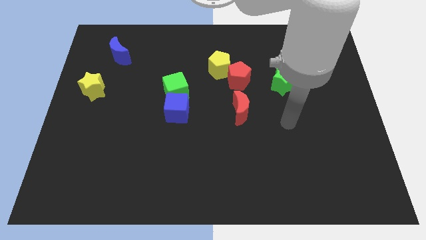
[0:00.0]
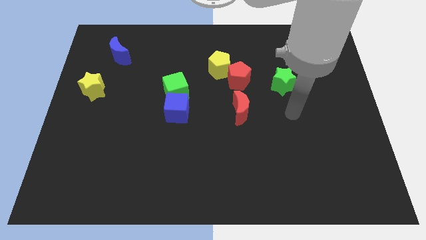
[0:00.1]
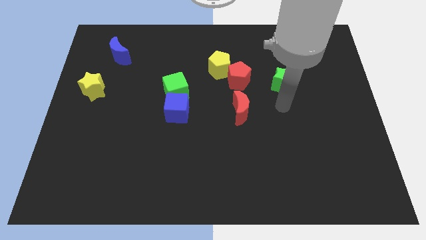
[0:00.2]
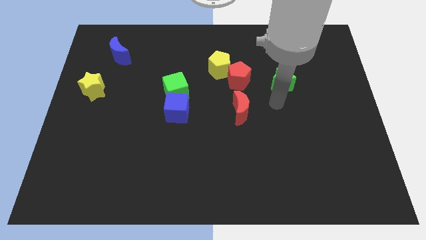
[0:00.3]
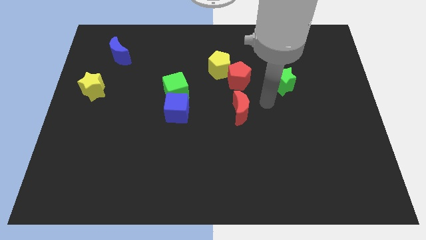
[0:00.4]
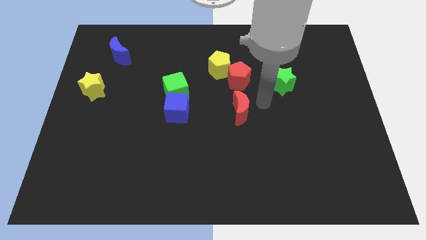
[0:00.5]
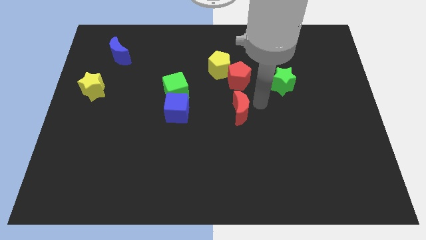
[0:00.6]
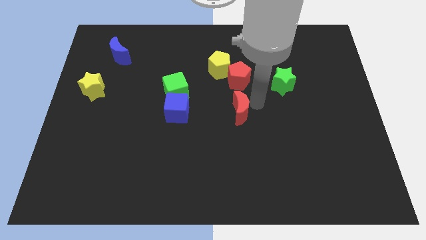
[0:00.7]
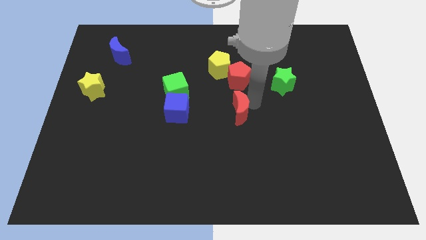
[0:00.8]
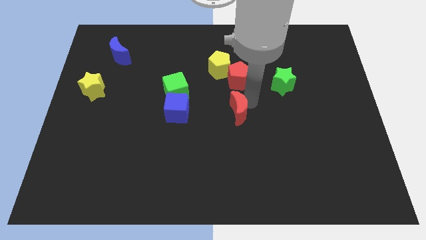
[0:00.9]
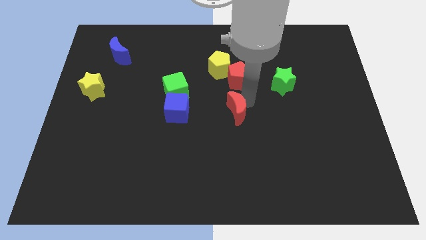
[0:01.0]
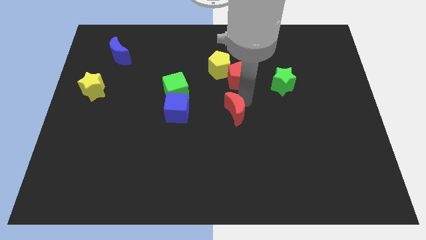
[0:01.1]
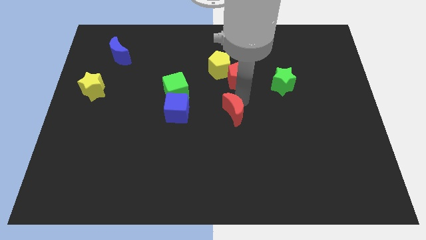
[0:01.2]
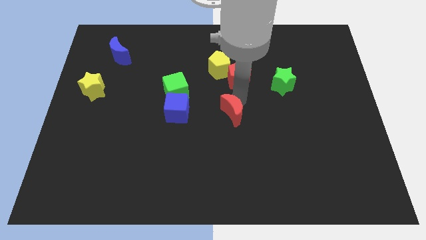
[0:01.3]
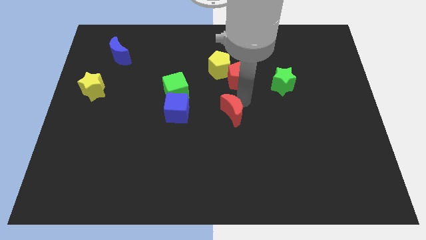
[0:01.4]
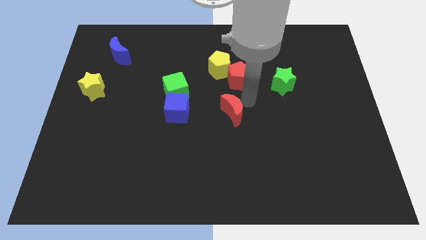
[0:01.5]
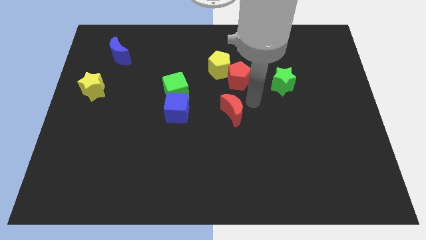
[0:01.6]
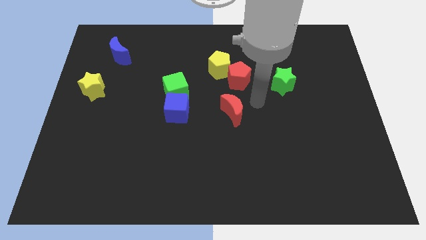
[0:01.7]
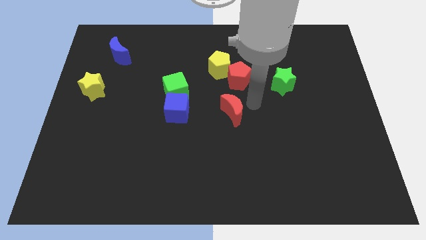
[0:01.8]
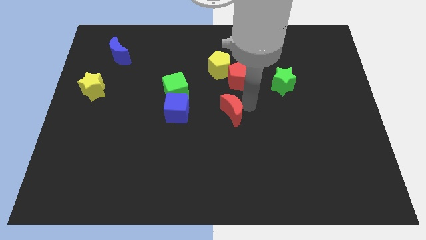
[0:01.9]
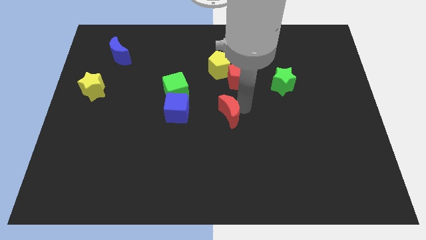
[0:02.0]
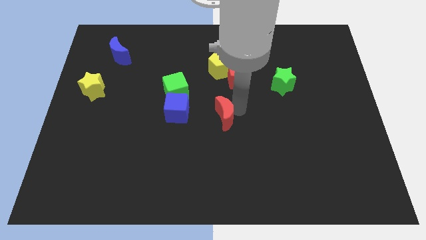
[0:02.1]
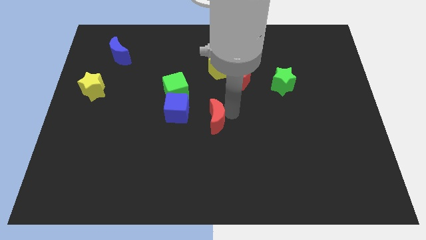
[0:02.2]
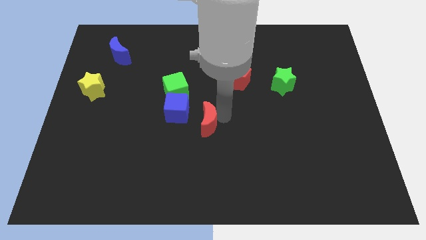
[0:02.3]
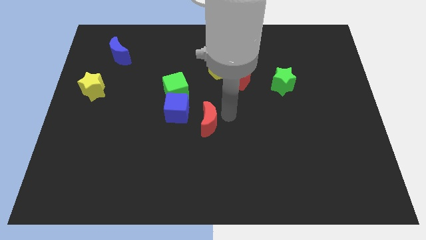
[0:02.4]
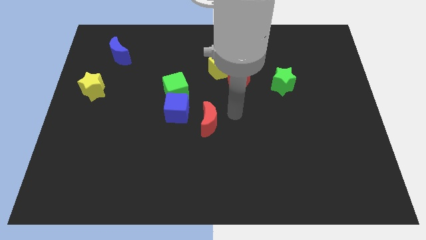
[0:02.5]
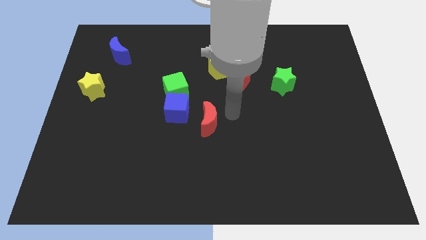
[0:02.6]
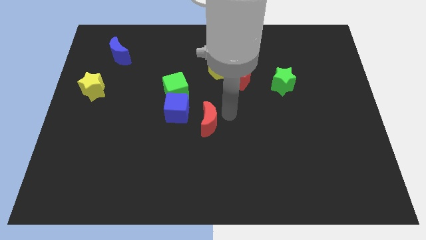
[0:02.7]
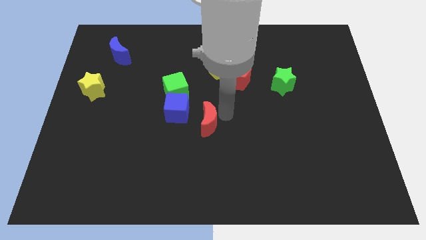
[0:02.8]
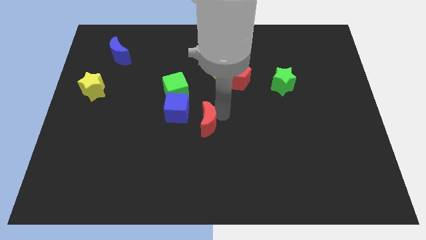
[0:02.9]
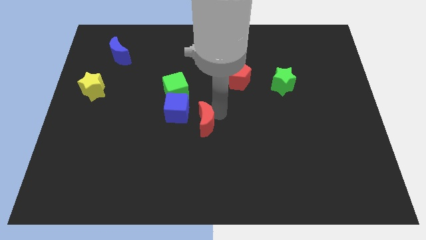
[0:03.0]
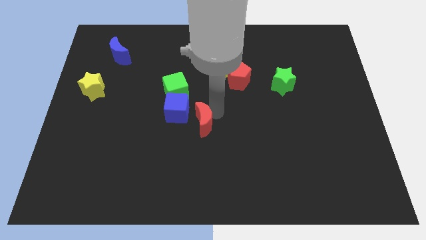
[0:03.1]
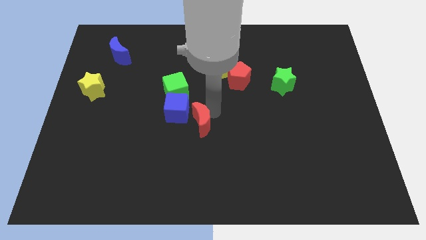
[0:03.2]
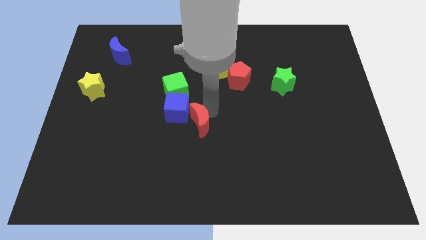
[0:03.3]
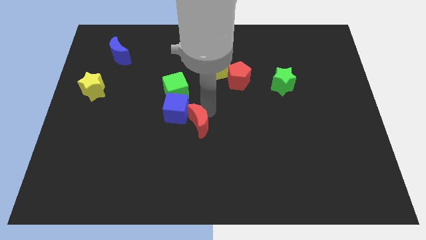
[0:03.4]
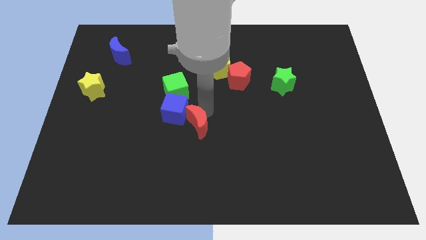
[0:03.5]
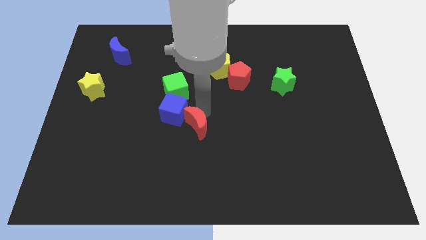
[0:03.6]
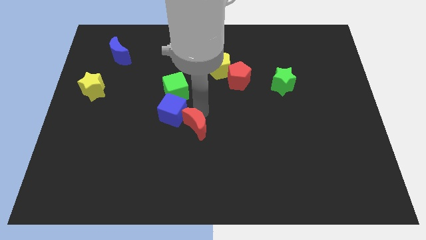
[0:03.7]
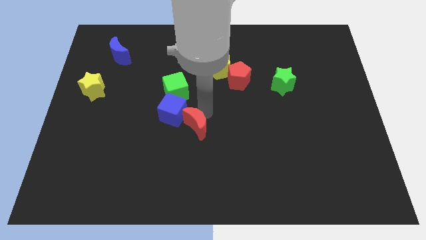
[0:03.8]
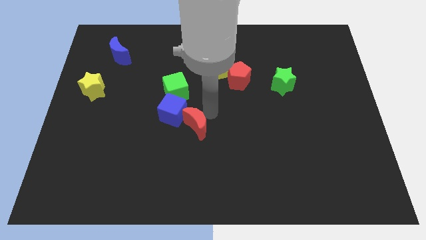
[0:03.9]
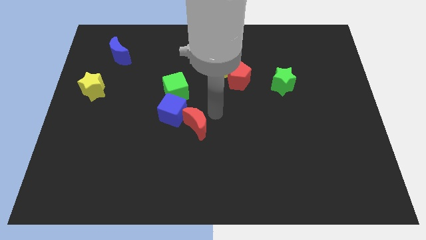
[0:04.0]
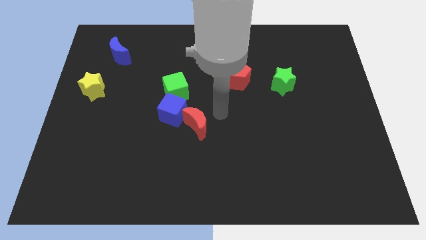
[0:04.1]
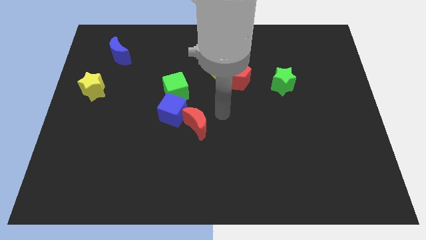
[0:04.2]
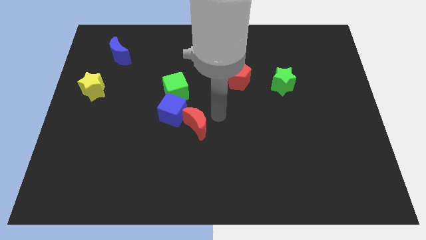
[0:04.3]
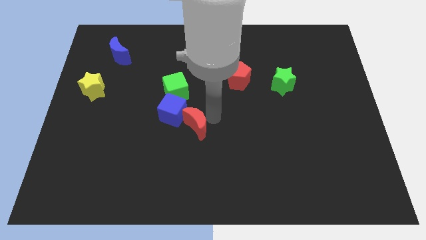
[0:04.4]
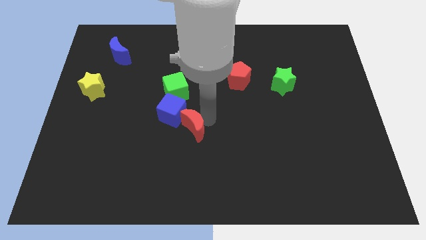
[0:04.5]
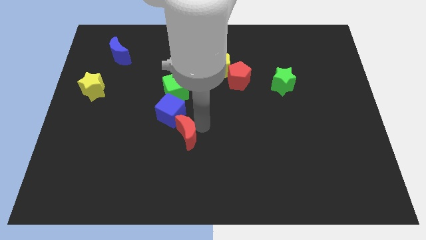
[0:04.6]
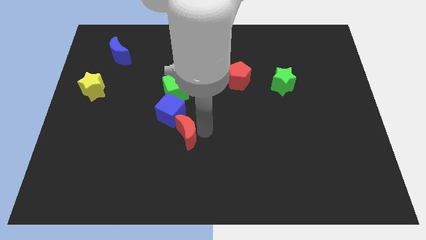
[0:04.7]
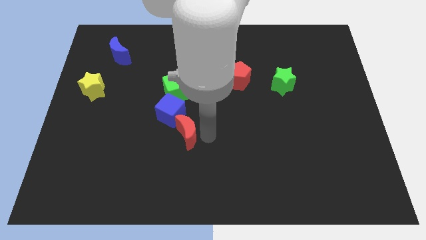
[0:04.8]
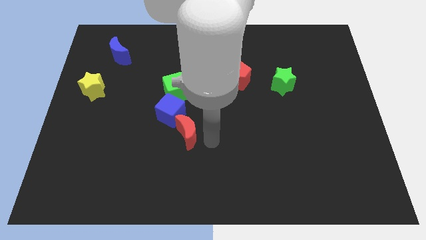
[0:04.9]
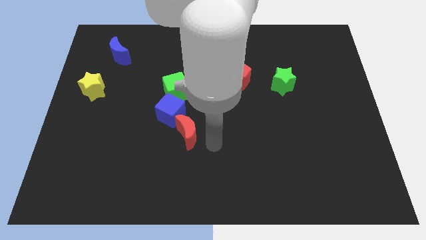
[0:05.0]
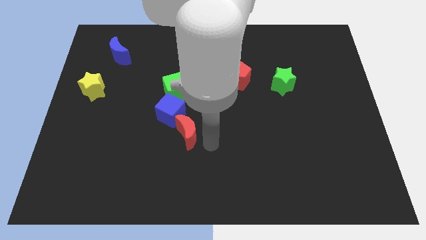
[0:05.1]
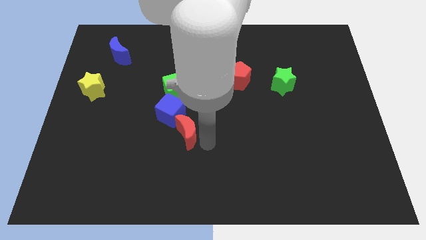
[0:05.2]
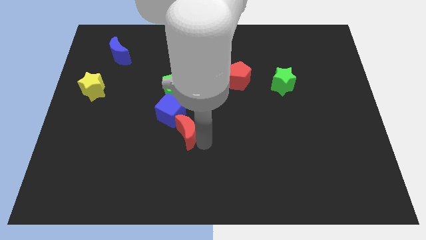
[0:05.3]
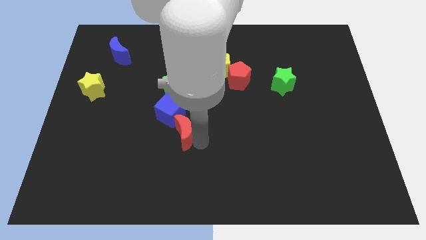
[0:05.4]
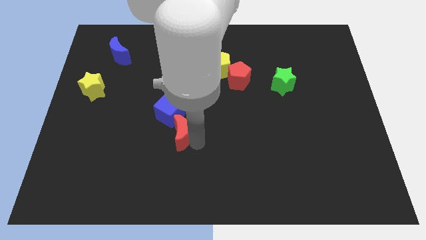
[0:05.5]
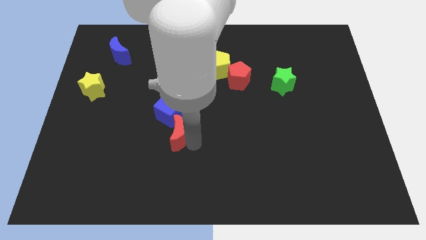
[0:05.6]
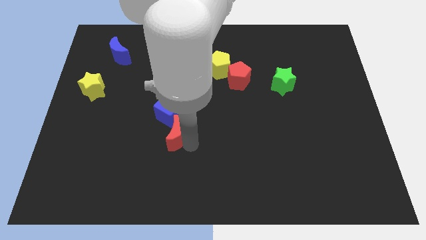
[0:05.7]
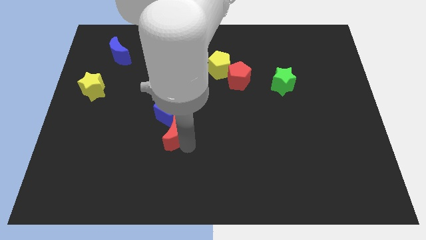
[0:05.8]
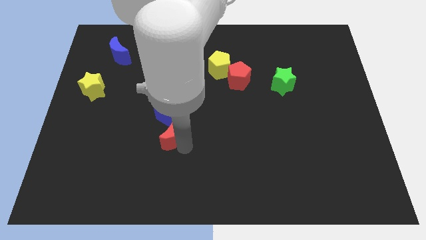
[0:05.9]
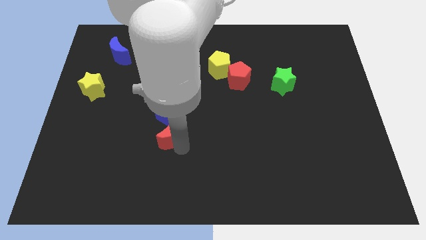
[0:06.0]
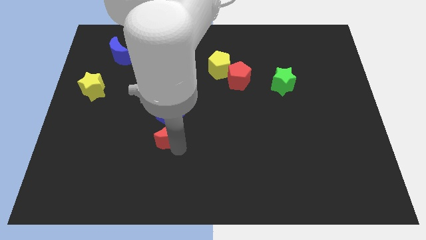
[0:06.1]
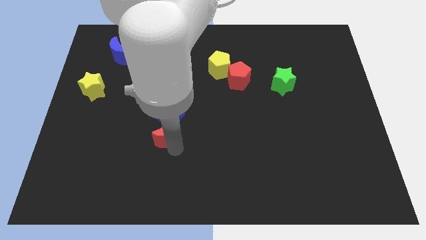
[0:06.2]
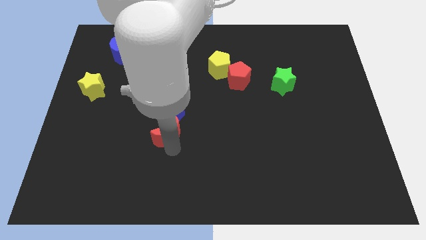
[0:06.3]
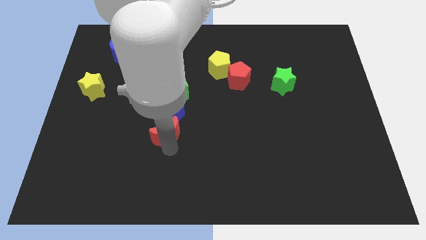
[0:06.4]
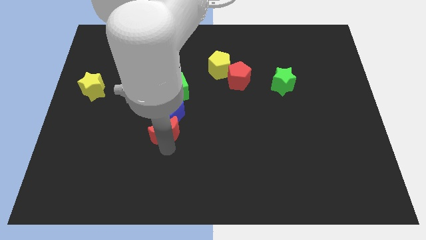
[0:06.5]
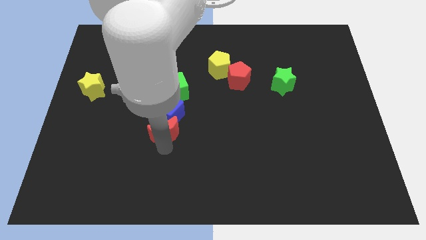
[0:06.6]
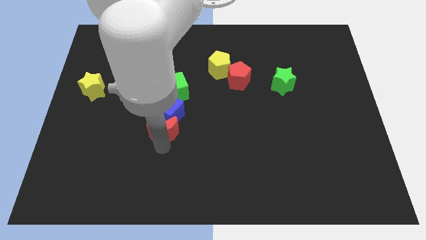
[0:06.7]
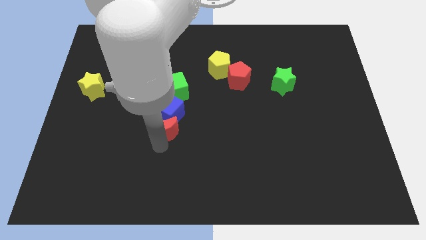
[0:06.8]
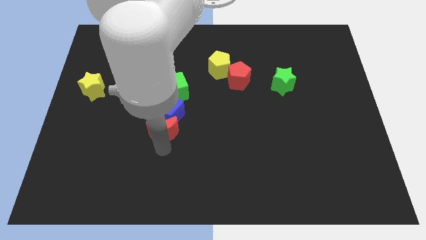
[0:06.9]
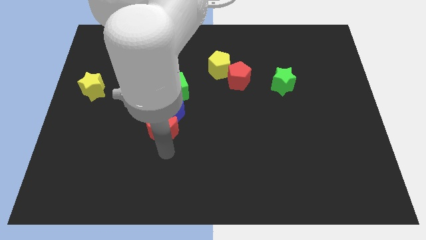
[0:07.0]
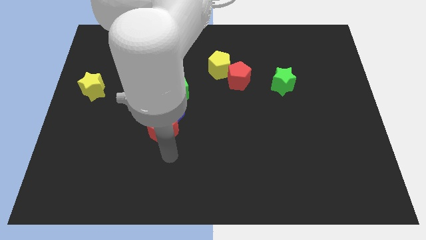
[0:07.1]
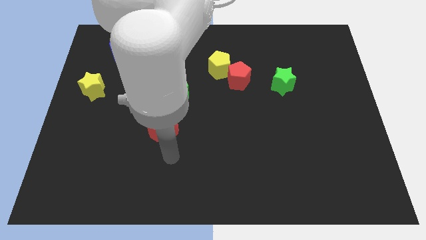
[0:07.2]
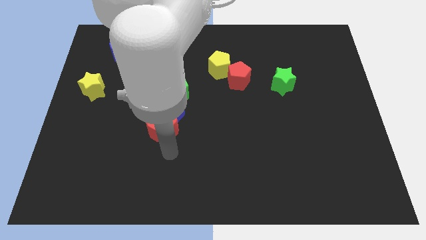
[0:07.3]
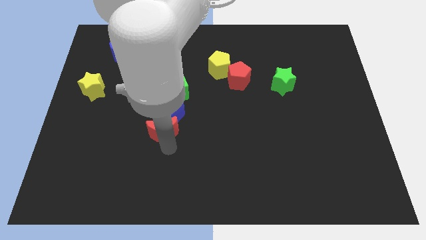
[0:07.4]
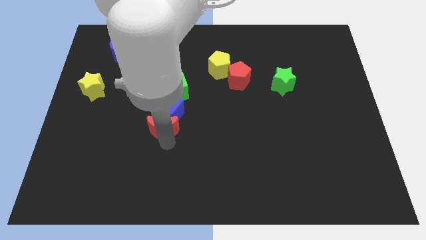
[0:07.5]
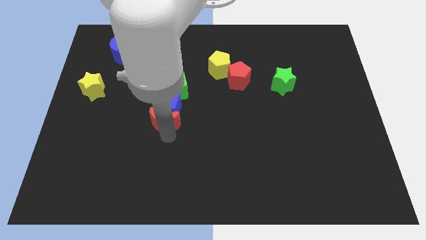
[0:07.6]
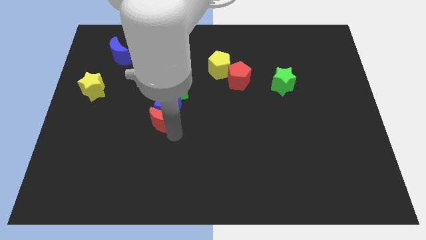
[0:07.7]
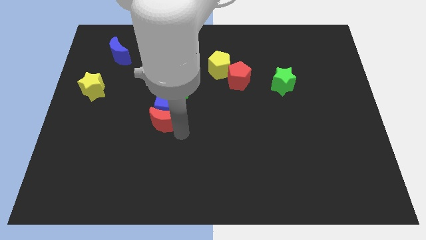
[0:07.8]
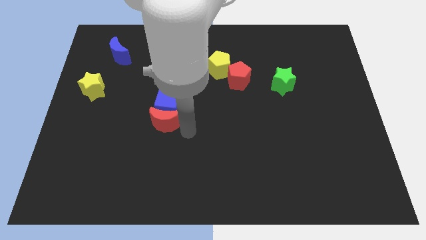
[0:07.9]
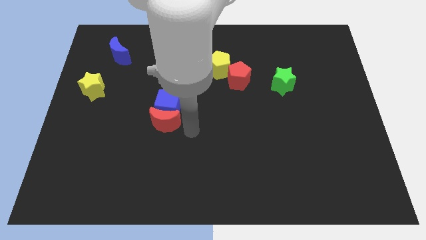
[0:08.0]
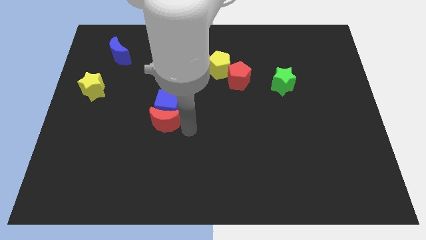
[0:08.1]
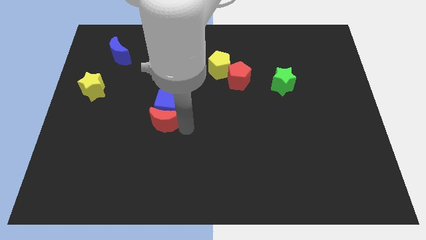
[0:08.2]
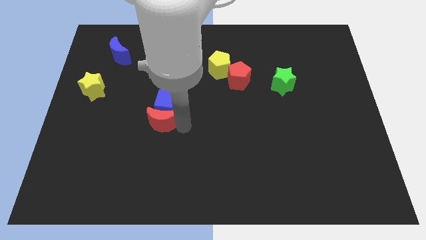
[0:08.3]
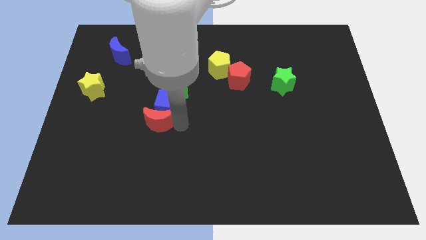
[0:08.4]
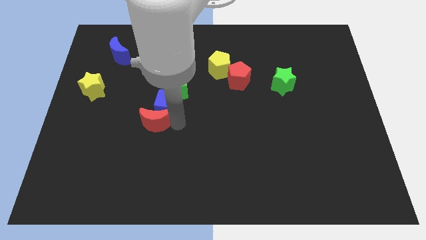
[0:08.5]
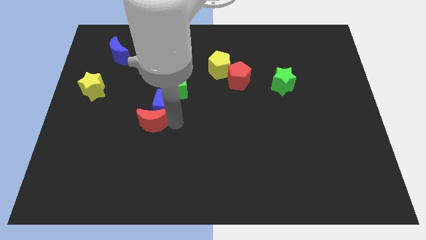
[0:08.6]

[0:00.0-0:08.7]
move the red moon to the left
